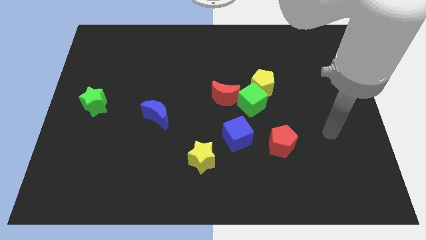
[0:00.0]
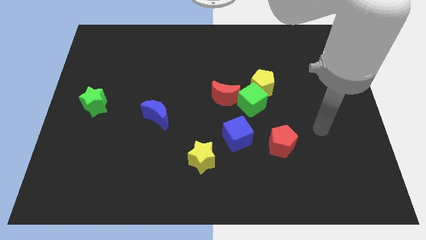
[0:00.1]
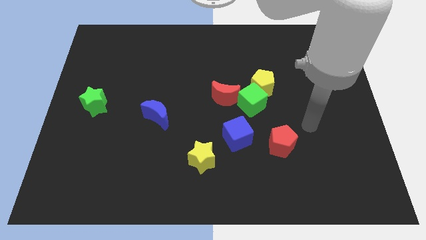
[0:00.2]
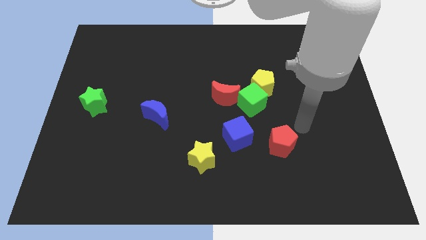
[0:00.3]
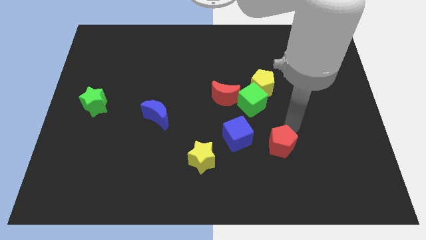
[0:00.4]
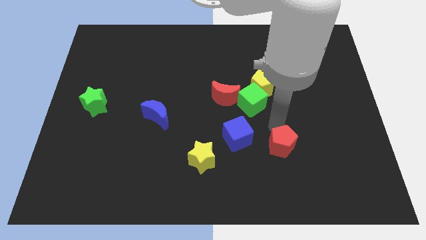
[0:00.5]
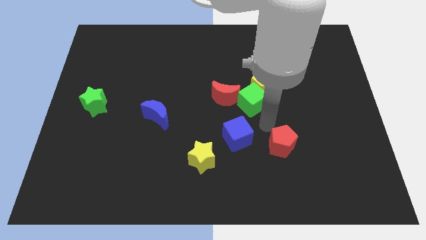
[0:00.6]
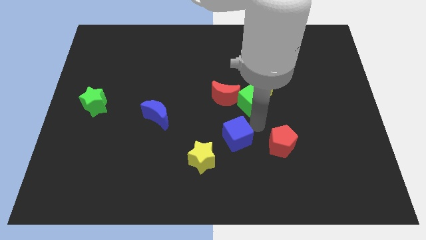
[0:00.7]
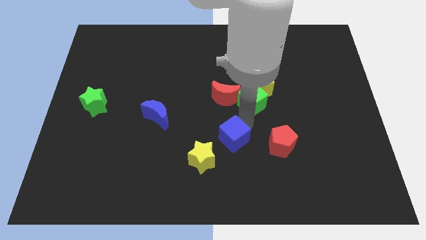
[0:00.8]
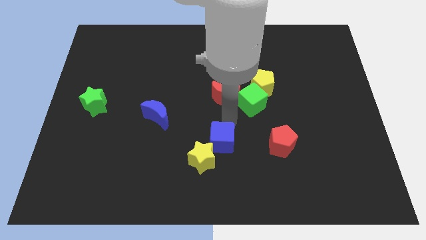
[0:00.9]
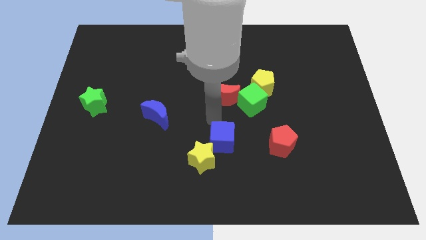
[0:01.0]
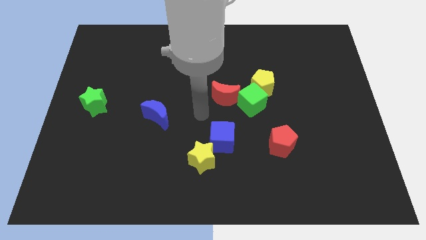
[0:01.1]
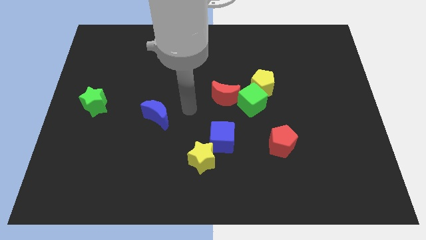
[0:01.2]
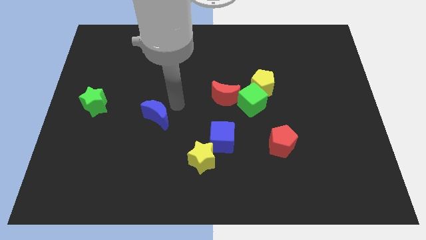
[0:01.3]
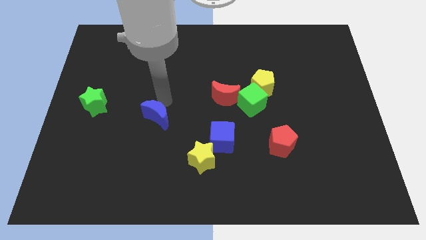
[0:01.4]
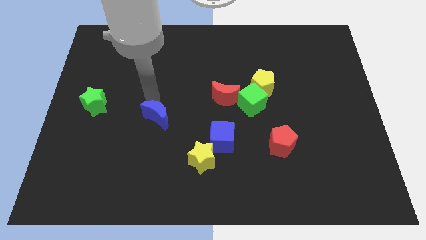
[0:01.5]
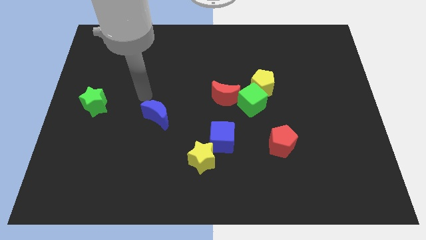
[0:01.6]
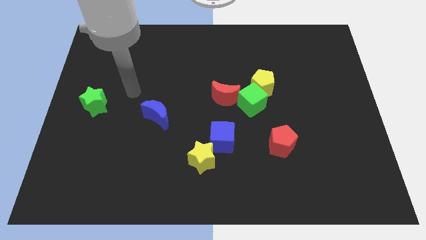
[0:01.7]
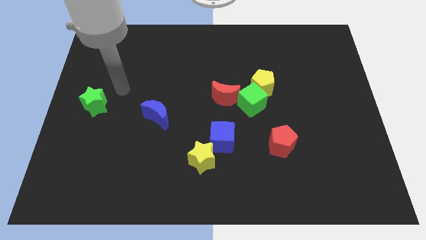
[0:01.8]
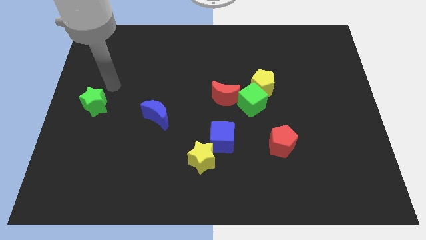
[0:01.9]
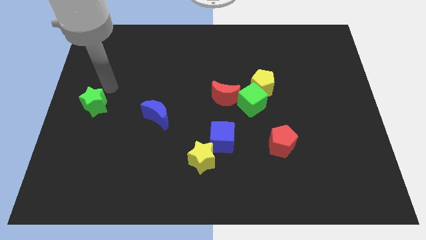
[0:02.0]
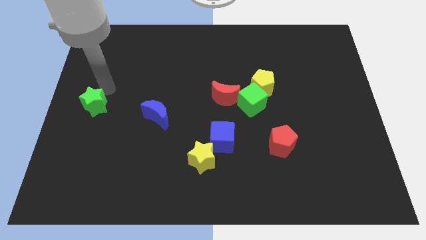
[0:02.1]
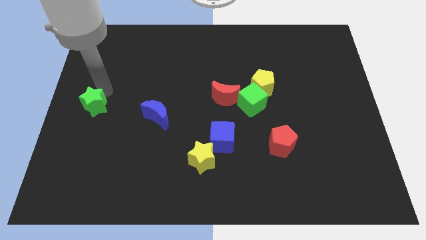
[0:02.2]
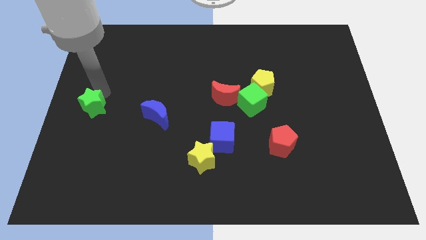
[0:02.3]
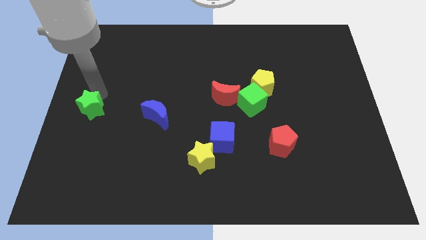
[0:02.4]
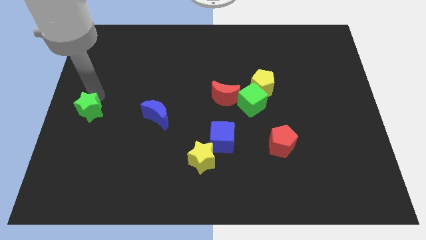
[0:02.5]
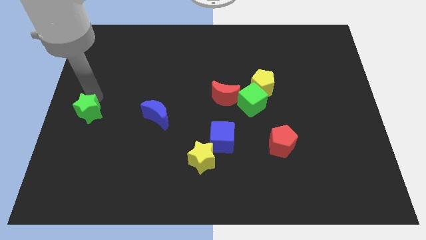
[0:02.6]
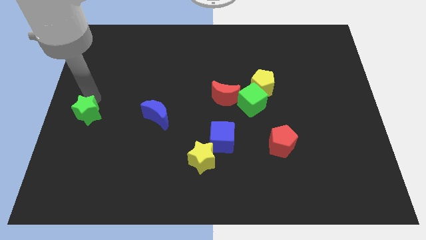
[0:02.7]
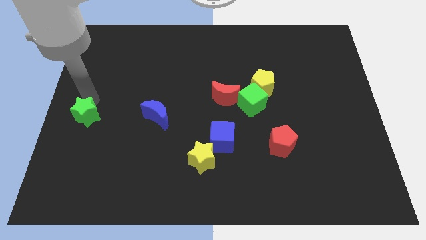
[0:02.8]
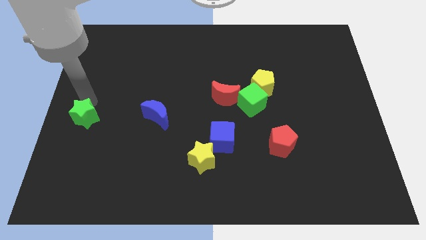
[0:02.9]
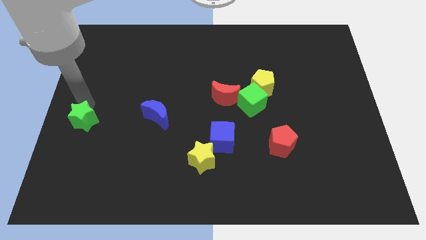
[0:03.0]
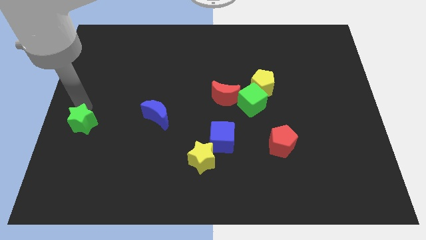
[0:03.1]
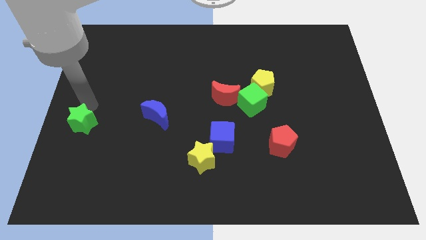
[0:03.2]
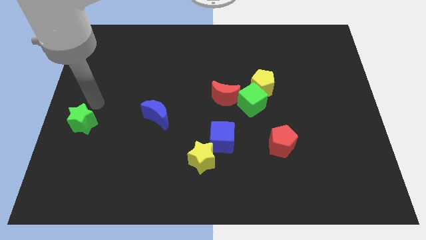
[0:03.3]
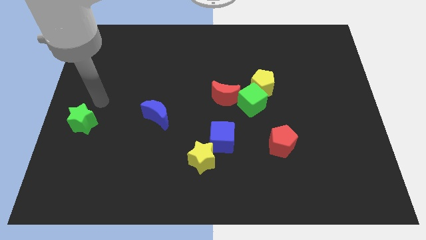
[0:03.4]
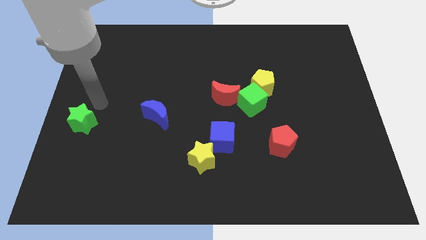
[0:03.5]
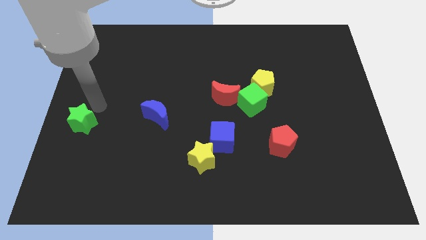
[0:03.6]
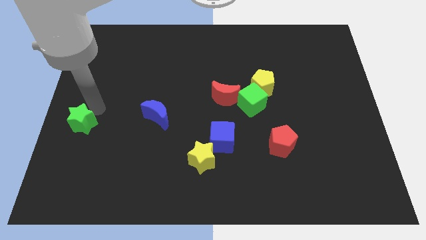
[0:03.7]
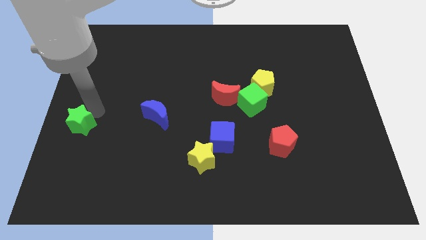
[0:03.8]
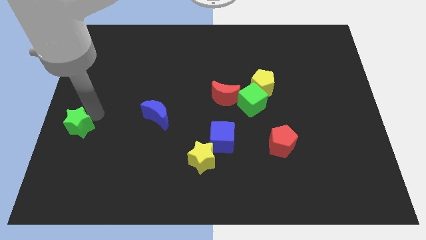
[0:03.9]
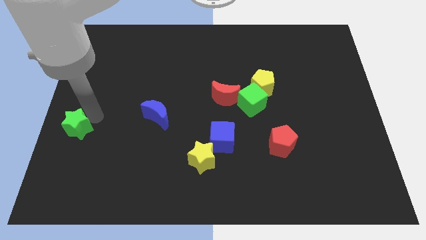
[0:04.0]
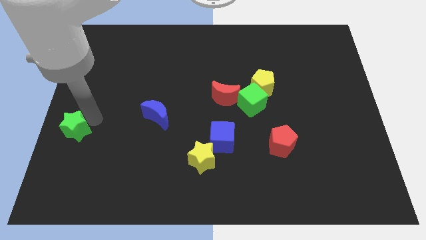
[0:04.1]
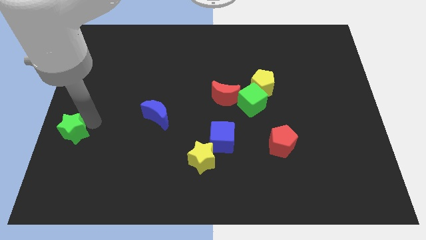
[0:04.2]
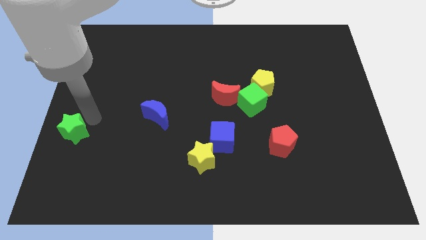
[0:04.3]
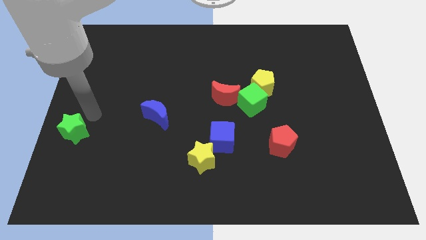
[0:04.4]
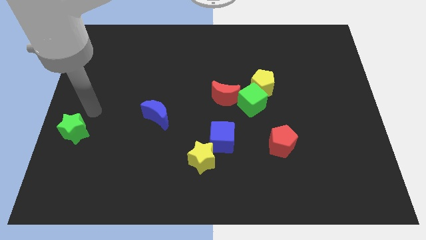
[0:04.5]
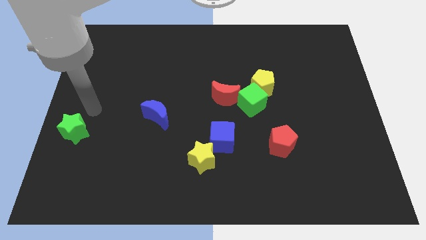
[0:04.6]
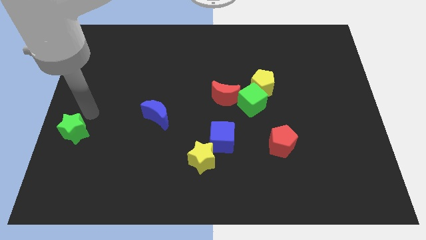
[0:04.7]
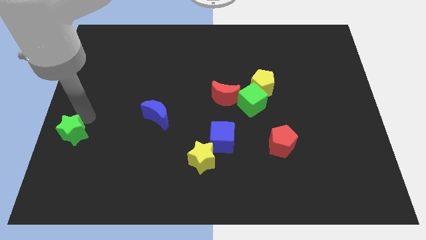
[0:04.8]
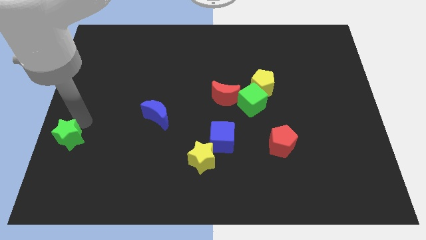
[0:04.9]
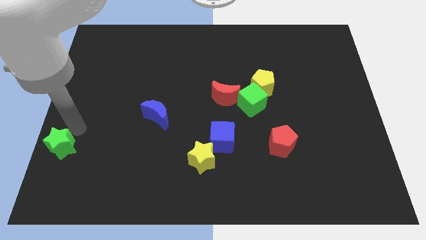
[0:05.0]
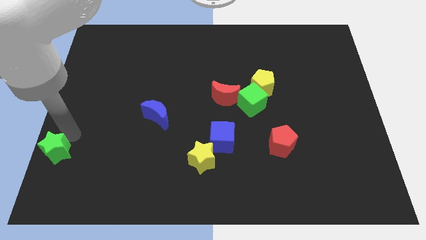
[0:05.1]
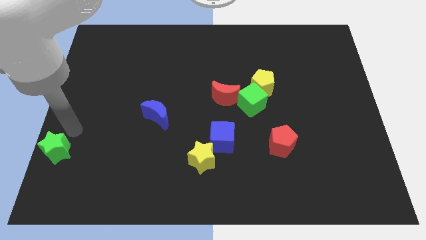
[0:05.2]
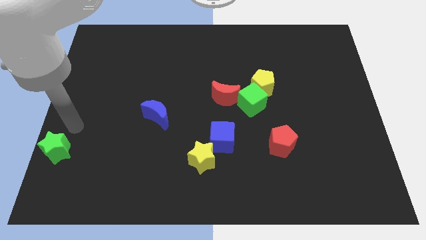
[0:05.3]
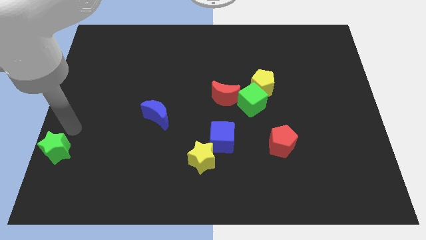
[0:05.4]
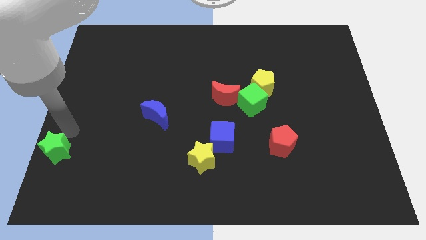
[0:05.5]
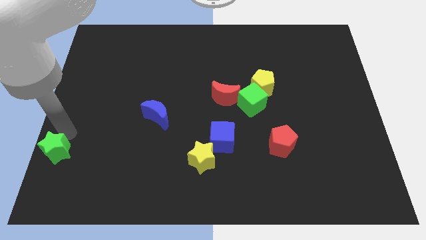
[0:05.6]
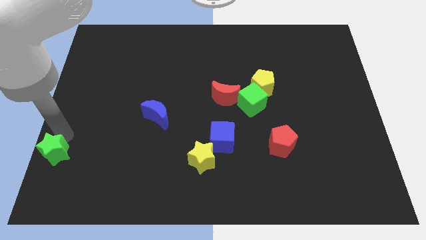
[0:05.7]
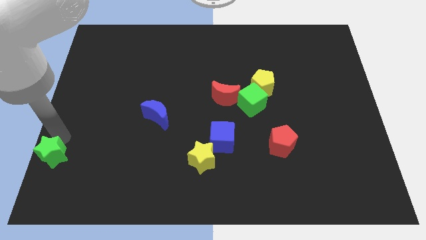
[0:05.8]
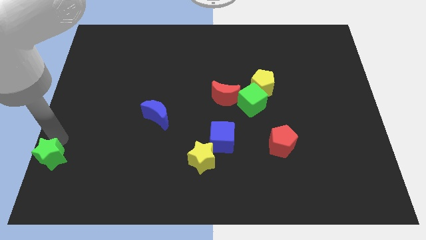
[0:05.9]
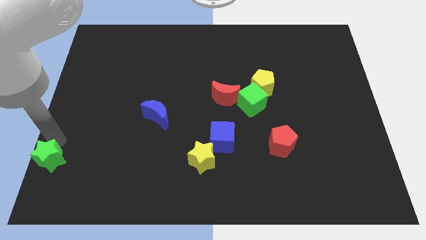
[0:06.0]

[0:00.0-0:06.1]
push the green star to the bottom left
